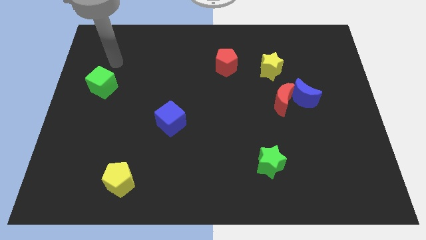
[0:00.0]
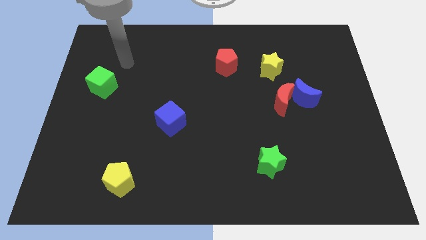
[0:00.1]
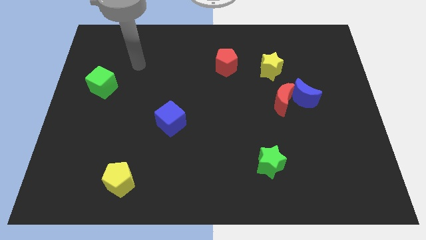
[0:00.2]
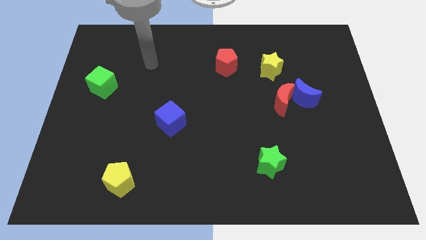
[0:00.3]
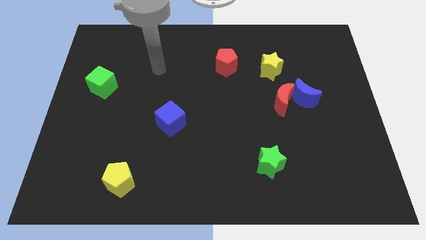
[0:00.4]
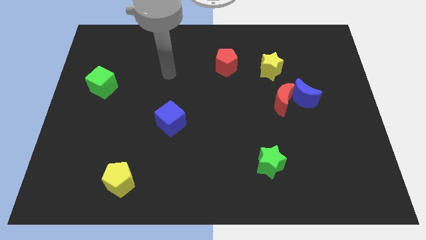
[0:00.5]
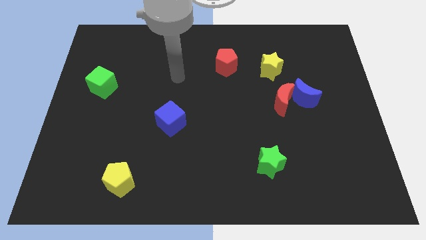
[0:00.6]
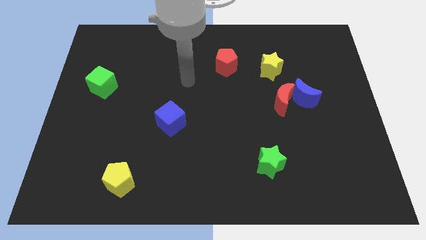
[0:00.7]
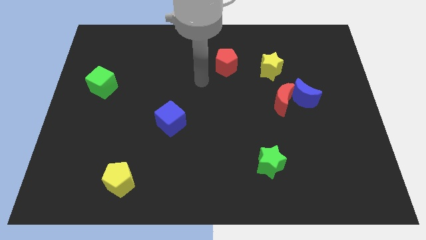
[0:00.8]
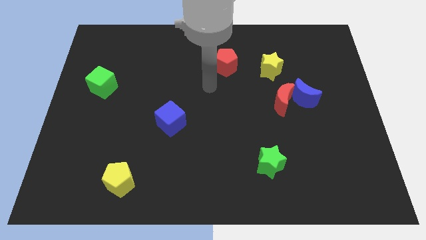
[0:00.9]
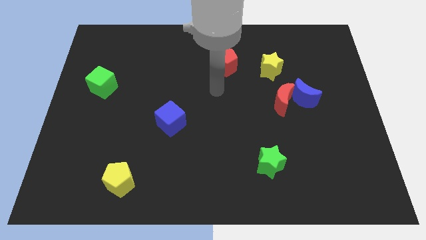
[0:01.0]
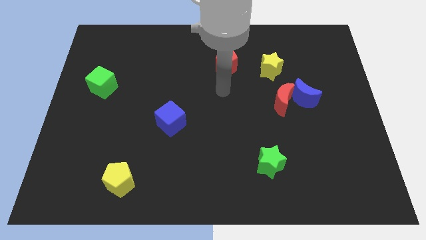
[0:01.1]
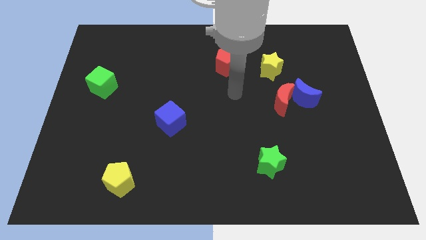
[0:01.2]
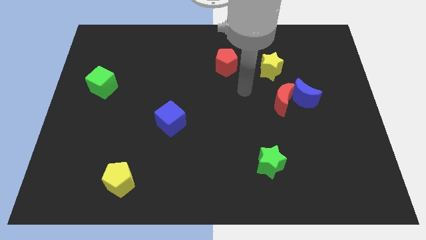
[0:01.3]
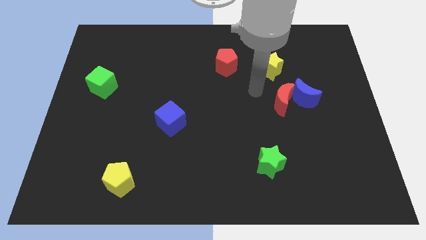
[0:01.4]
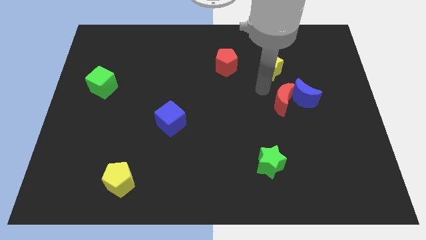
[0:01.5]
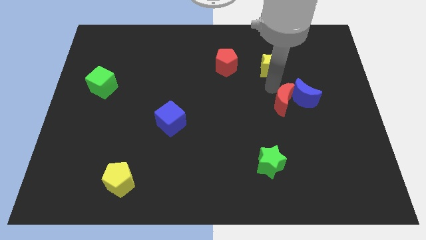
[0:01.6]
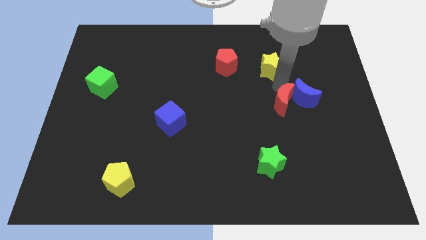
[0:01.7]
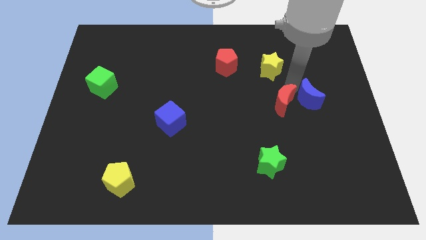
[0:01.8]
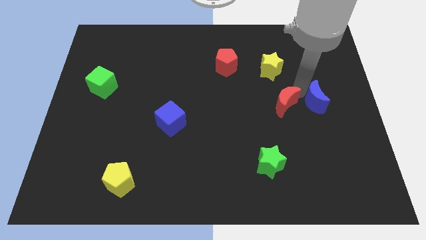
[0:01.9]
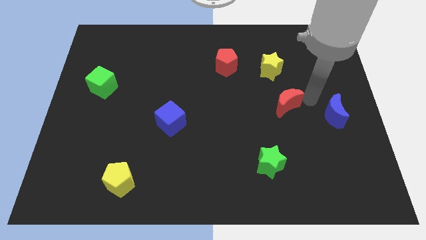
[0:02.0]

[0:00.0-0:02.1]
separate the red moon from the blue moon

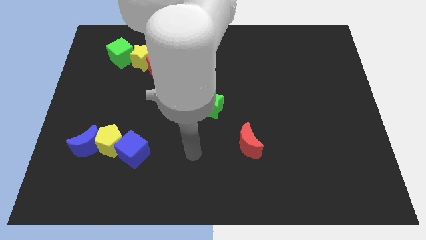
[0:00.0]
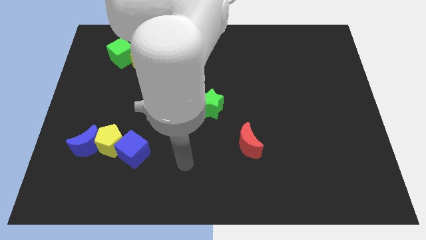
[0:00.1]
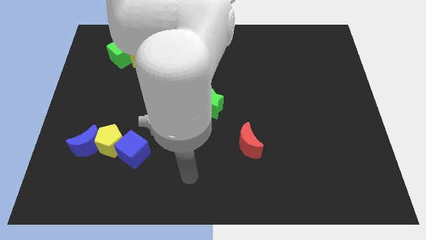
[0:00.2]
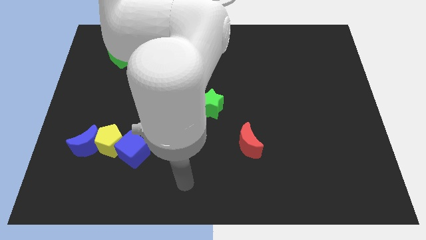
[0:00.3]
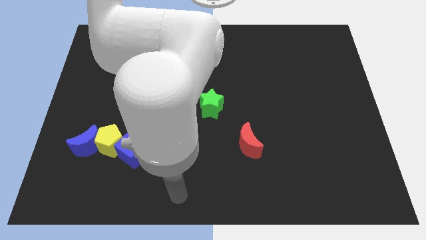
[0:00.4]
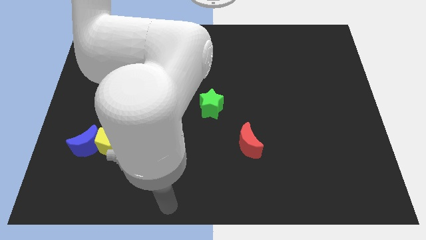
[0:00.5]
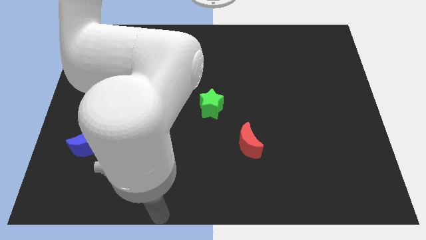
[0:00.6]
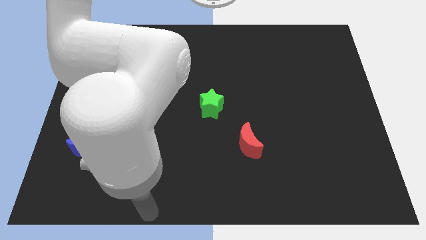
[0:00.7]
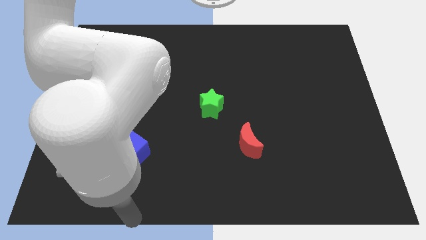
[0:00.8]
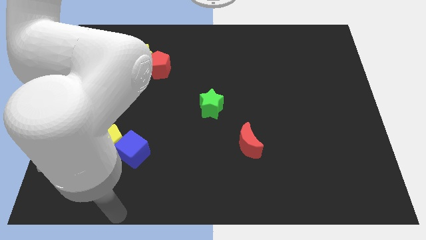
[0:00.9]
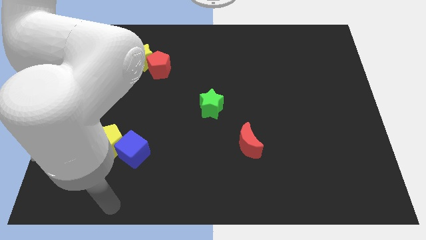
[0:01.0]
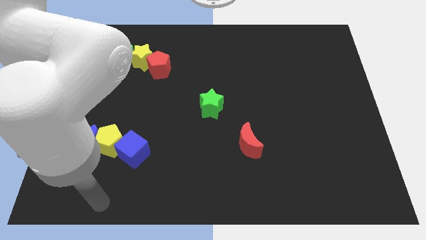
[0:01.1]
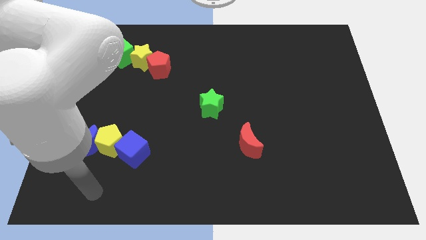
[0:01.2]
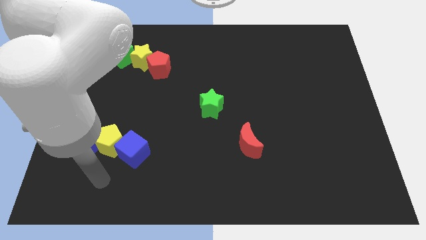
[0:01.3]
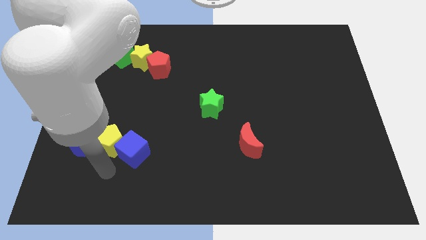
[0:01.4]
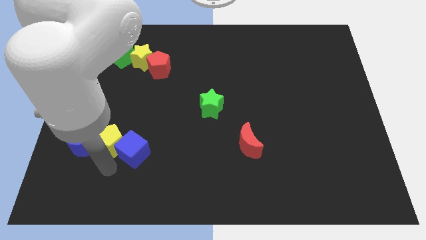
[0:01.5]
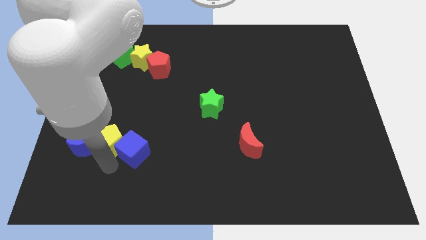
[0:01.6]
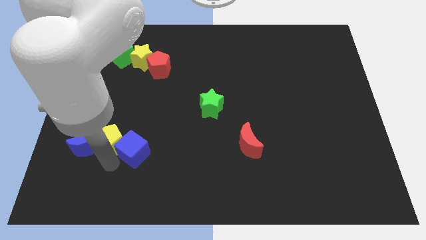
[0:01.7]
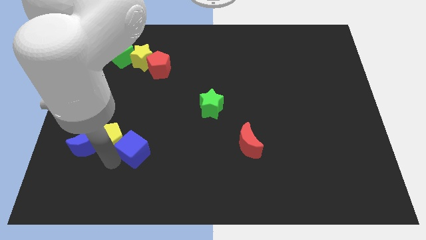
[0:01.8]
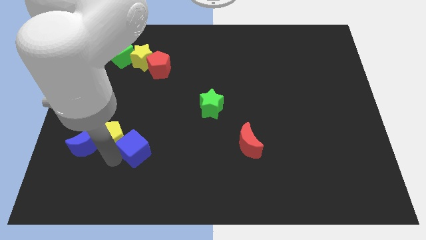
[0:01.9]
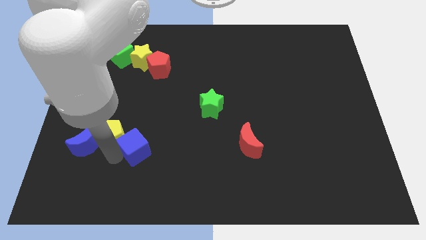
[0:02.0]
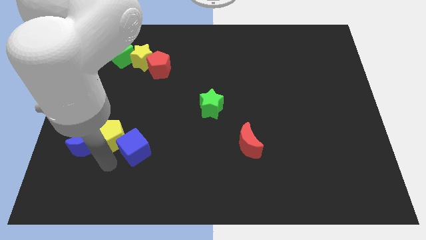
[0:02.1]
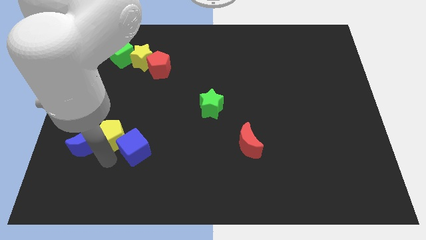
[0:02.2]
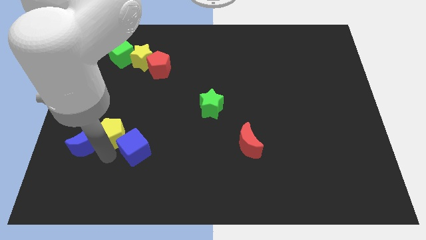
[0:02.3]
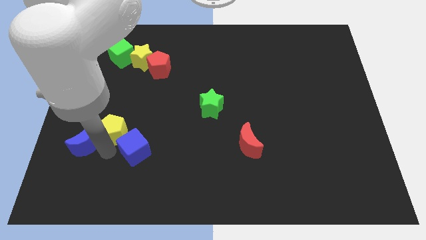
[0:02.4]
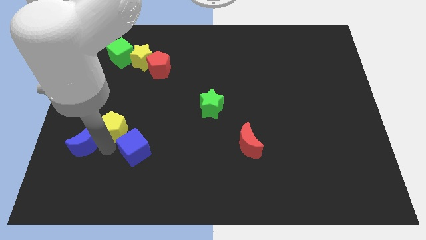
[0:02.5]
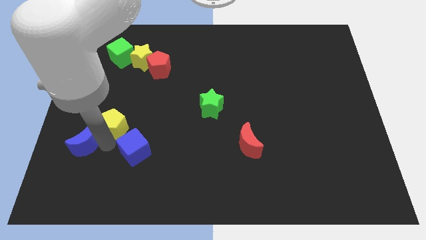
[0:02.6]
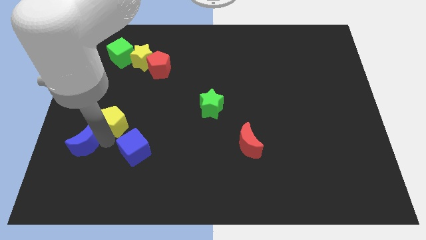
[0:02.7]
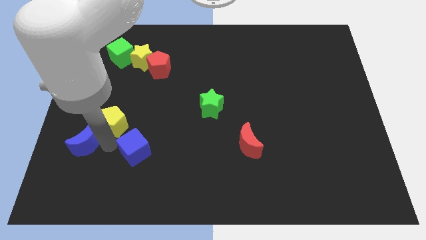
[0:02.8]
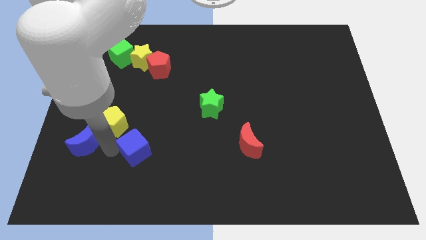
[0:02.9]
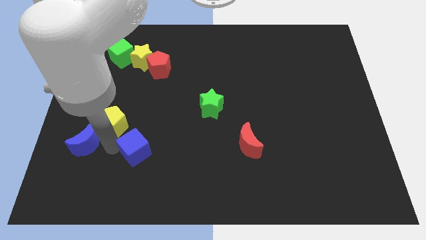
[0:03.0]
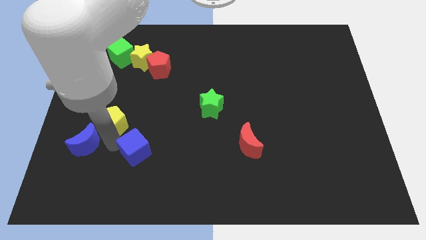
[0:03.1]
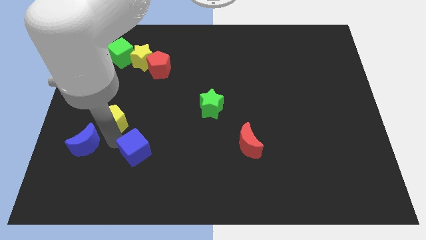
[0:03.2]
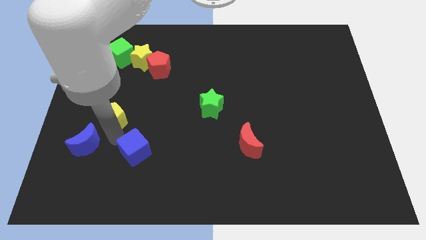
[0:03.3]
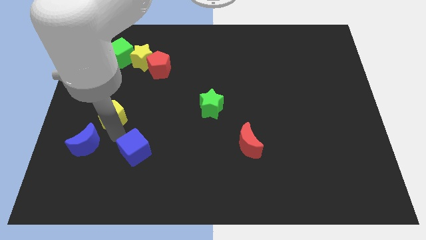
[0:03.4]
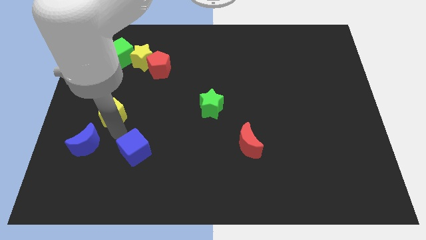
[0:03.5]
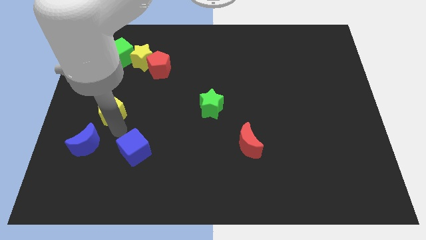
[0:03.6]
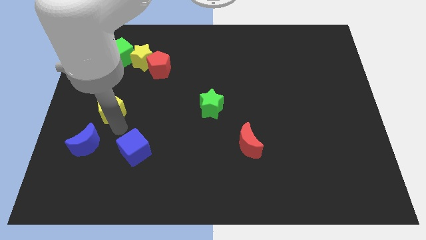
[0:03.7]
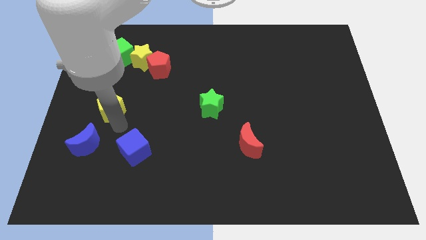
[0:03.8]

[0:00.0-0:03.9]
move the yellow pentagon away from the blue moon and blue cube

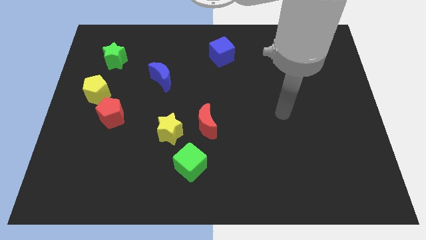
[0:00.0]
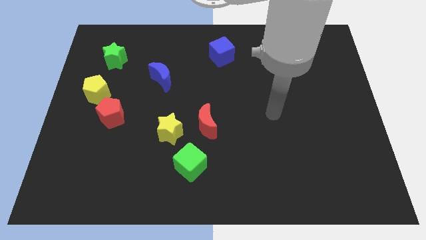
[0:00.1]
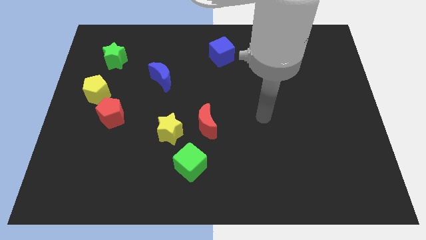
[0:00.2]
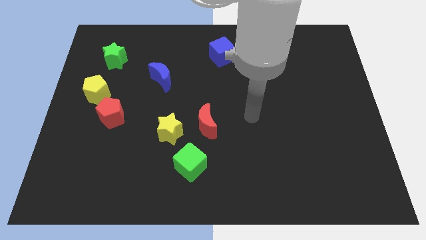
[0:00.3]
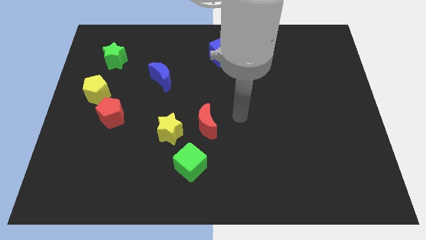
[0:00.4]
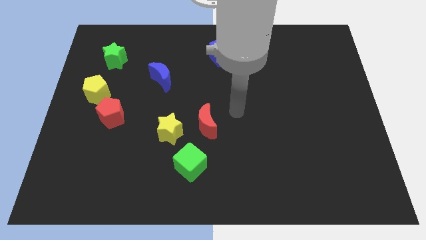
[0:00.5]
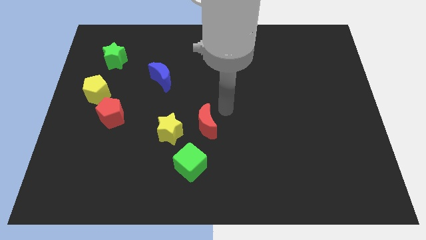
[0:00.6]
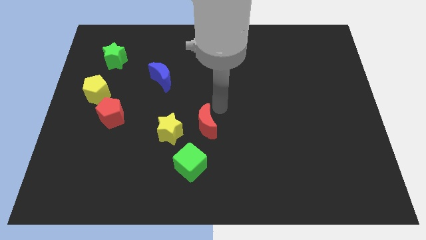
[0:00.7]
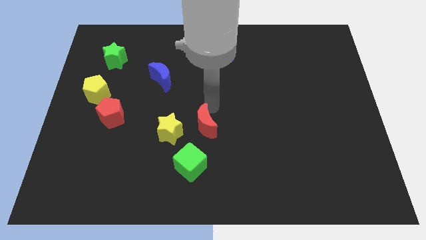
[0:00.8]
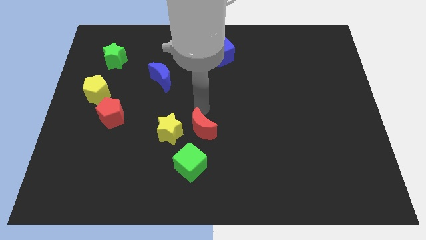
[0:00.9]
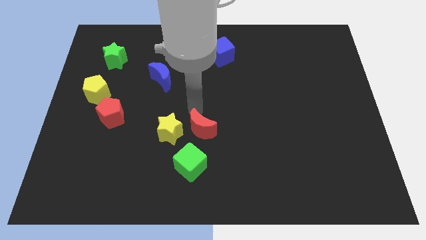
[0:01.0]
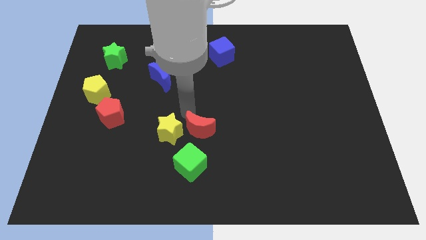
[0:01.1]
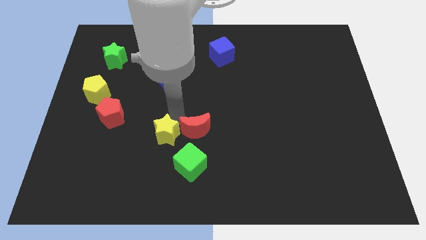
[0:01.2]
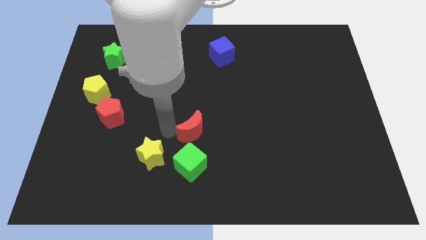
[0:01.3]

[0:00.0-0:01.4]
separate the red moon from the yellow star

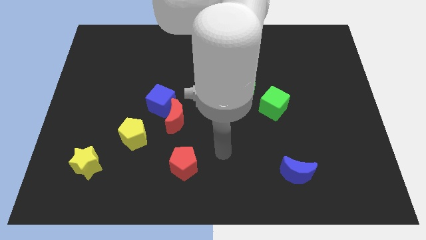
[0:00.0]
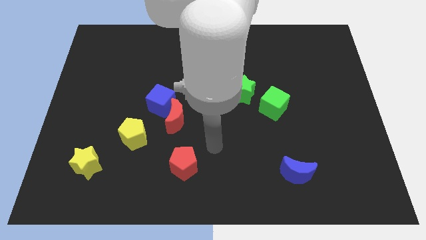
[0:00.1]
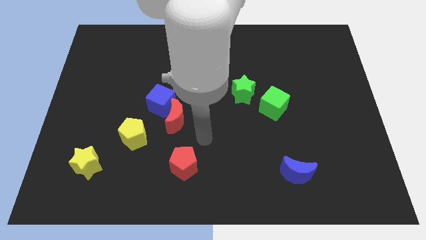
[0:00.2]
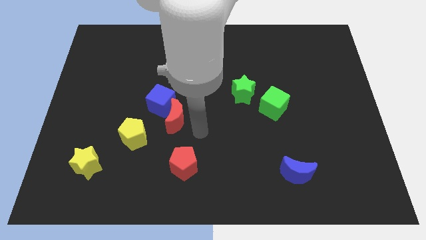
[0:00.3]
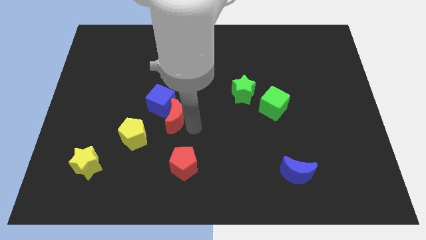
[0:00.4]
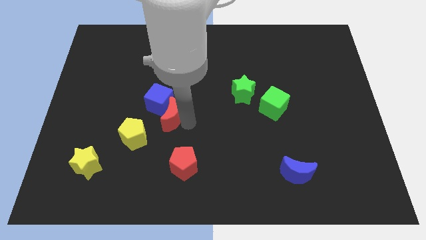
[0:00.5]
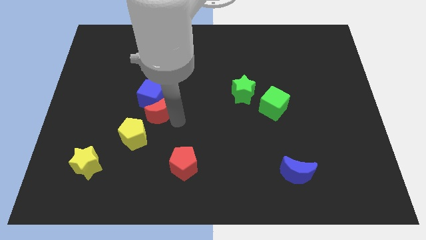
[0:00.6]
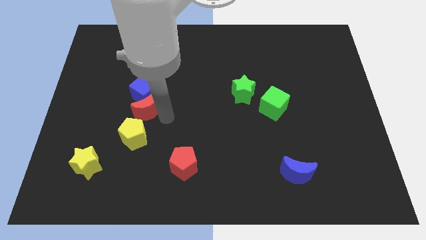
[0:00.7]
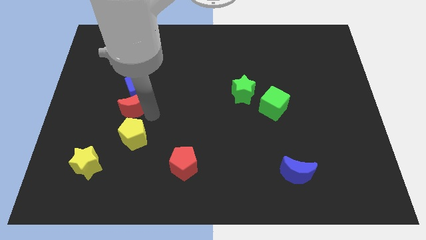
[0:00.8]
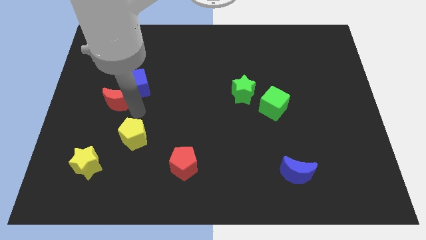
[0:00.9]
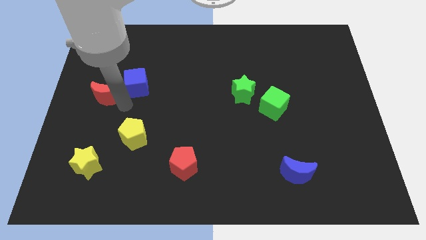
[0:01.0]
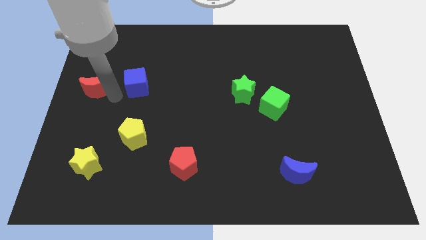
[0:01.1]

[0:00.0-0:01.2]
separate the blue cube from the red moon

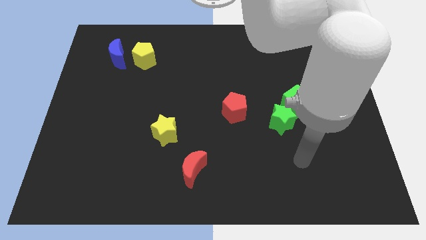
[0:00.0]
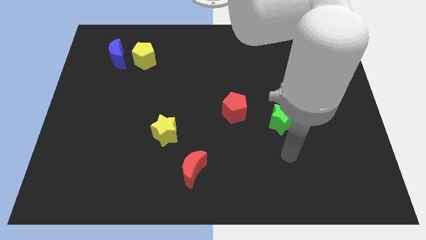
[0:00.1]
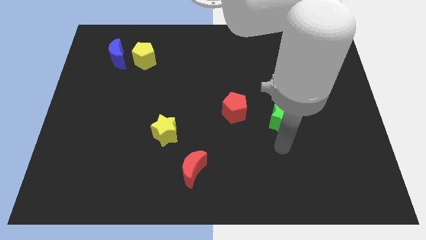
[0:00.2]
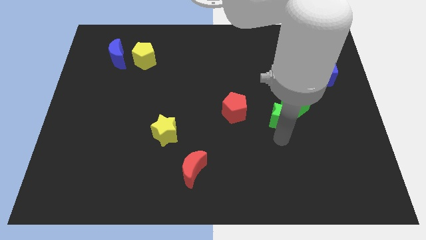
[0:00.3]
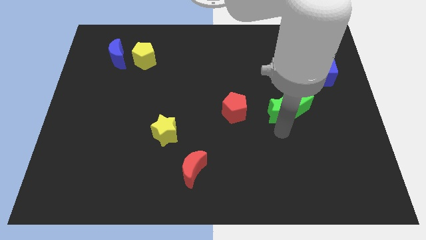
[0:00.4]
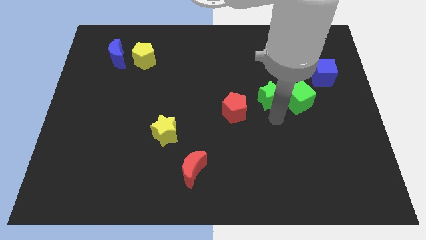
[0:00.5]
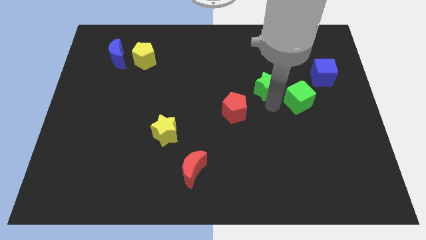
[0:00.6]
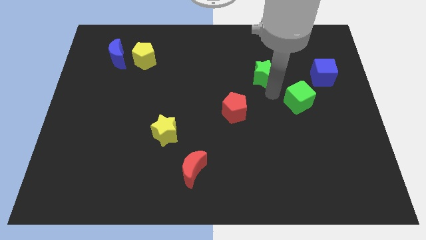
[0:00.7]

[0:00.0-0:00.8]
separate the green cube from the green star

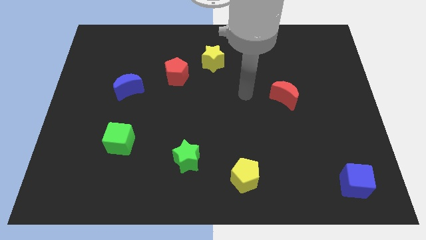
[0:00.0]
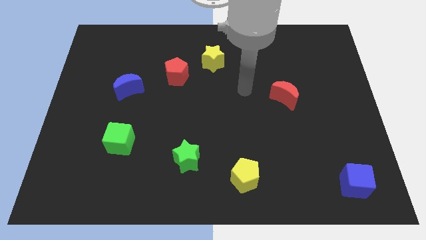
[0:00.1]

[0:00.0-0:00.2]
separate the red pentagon from the yellow star
